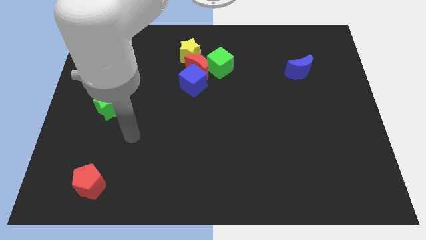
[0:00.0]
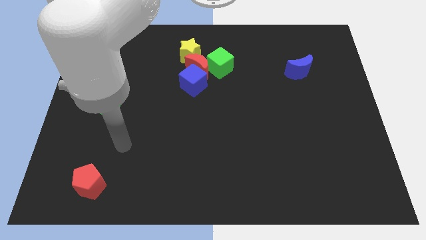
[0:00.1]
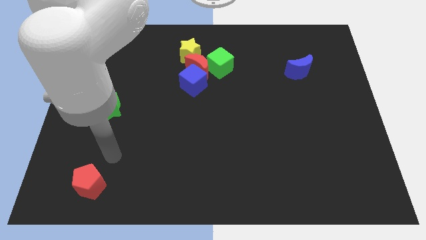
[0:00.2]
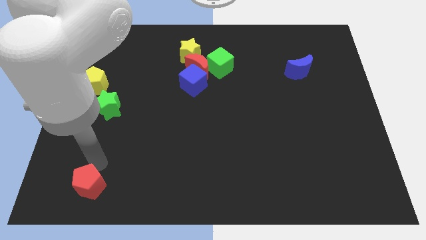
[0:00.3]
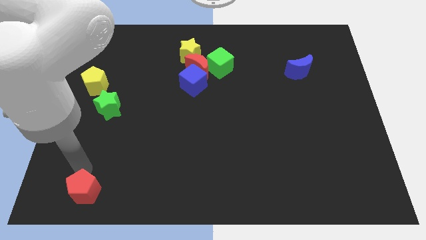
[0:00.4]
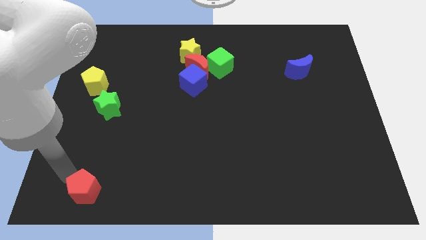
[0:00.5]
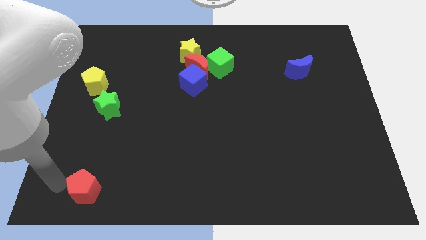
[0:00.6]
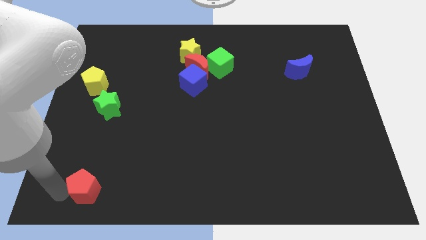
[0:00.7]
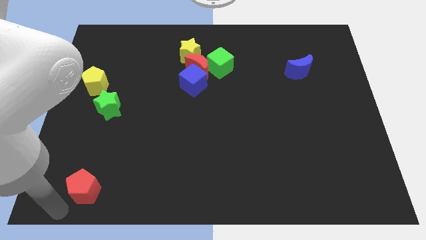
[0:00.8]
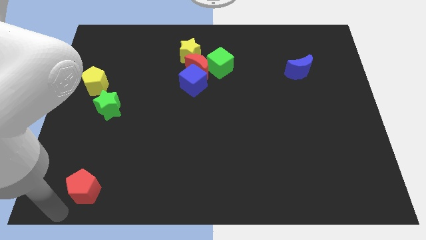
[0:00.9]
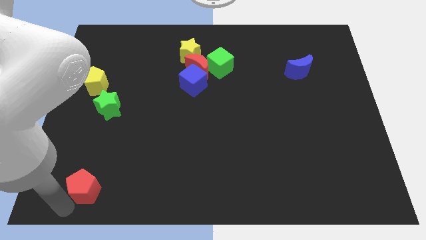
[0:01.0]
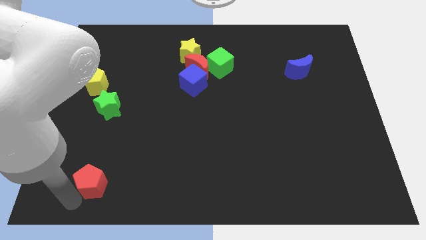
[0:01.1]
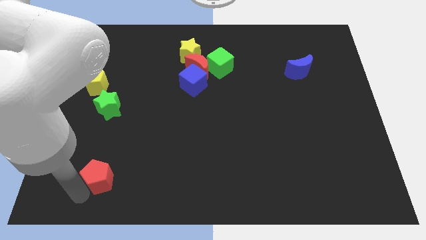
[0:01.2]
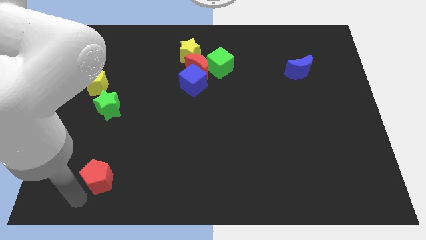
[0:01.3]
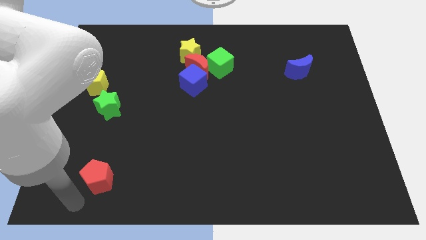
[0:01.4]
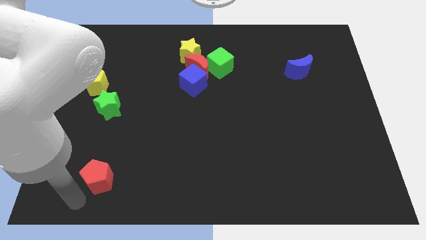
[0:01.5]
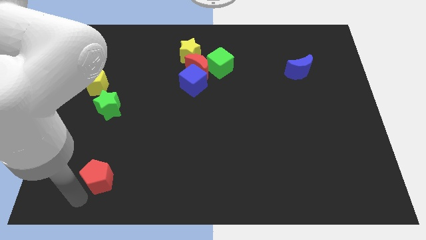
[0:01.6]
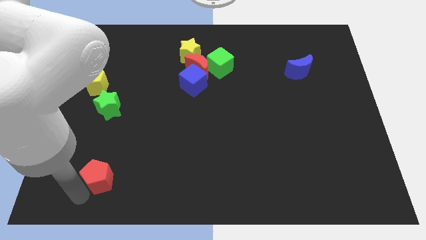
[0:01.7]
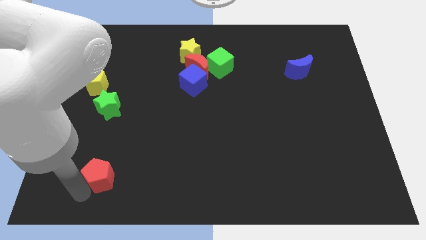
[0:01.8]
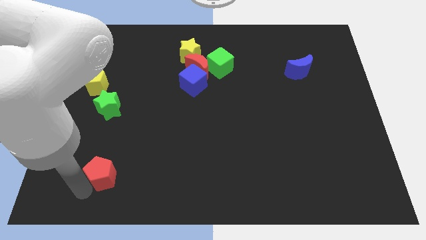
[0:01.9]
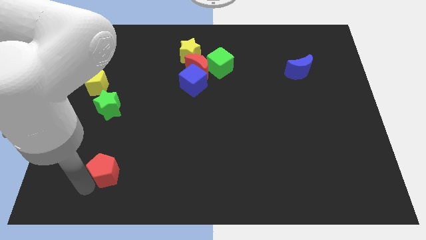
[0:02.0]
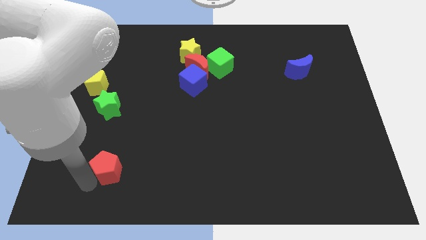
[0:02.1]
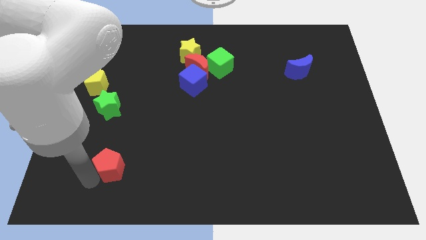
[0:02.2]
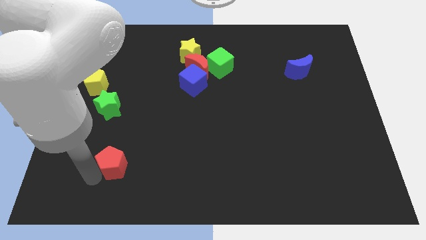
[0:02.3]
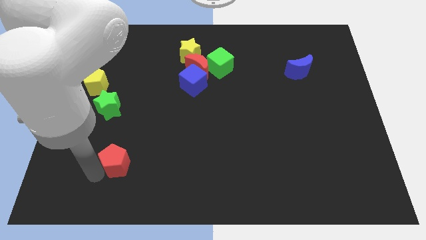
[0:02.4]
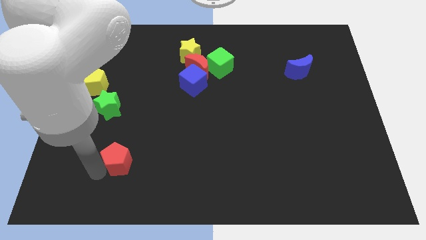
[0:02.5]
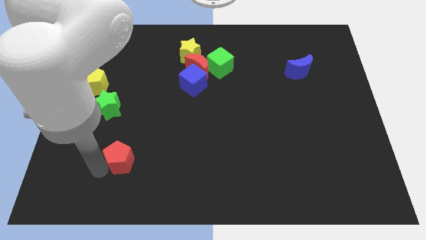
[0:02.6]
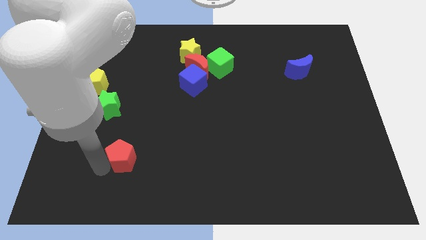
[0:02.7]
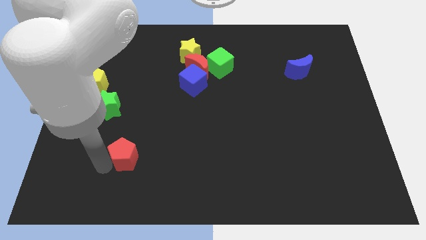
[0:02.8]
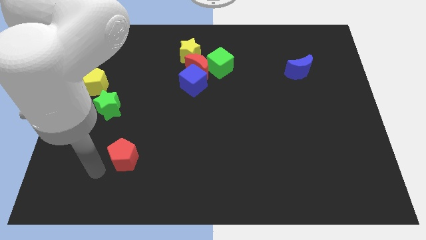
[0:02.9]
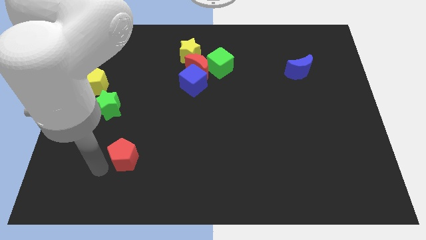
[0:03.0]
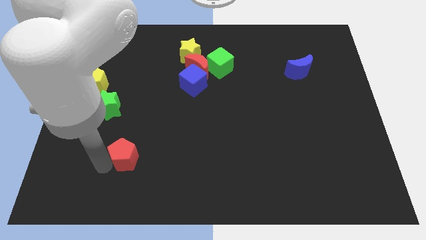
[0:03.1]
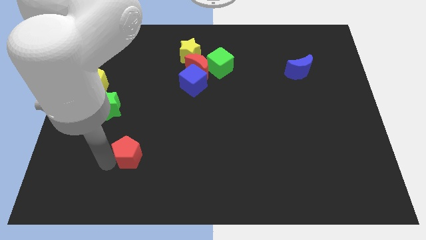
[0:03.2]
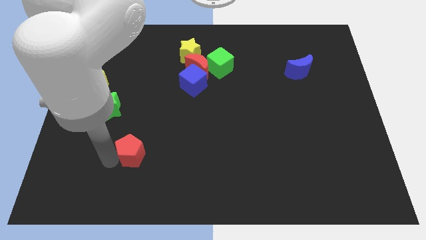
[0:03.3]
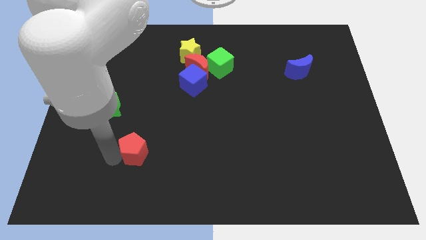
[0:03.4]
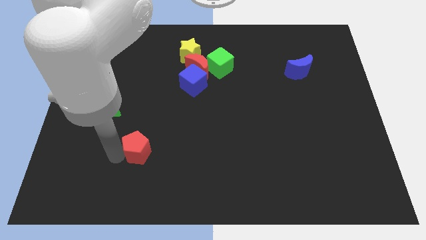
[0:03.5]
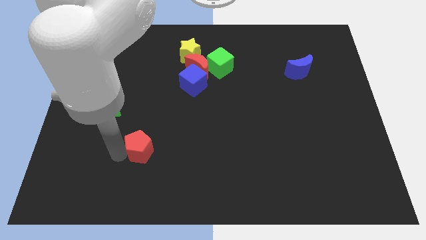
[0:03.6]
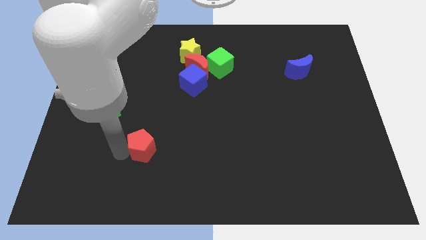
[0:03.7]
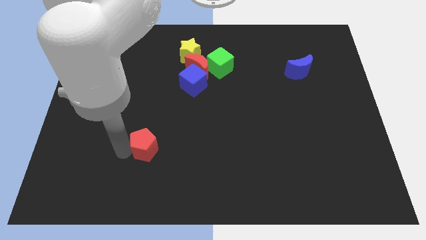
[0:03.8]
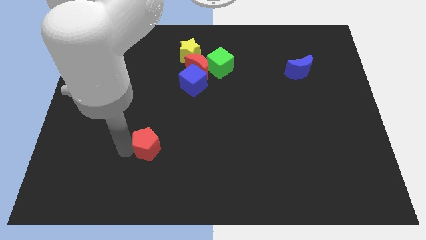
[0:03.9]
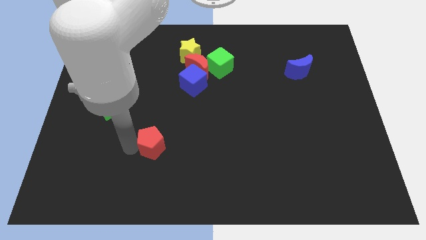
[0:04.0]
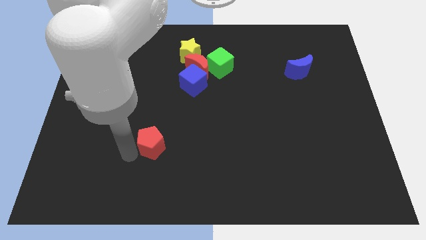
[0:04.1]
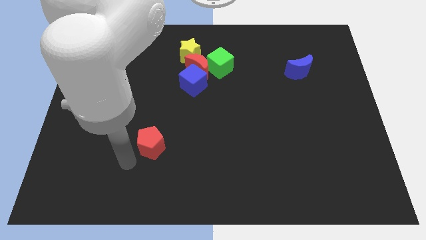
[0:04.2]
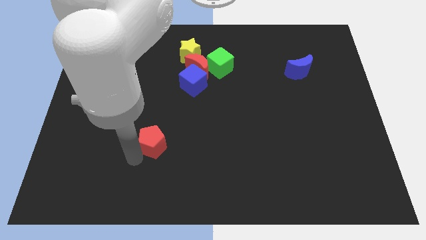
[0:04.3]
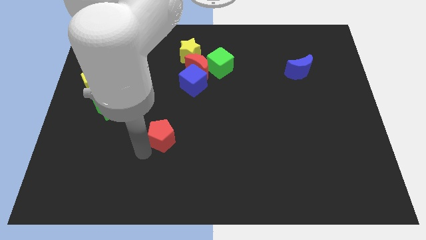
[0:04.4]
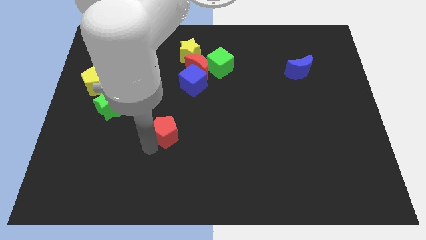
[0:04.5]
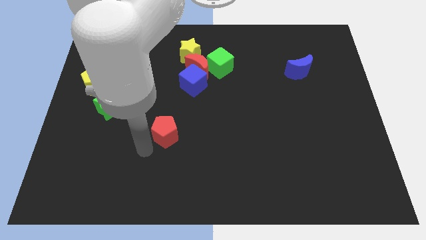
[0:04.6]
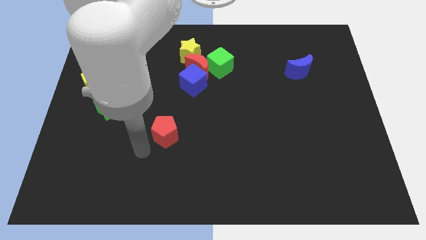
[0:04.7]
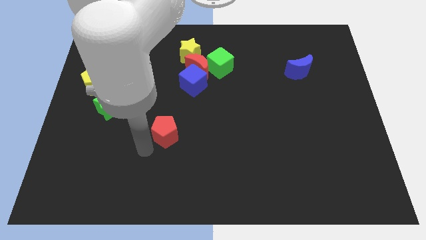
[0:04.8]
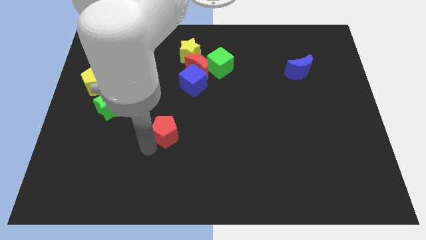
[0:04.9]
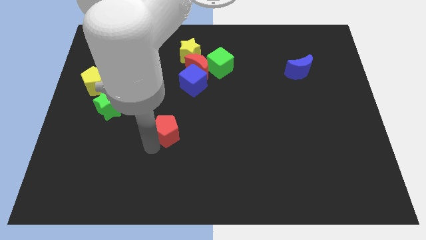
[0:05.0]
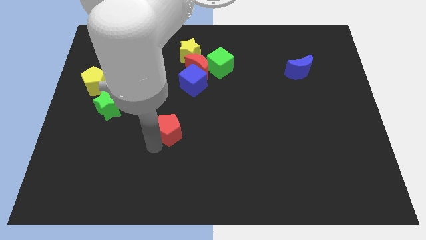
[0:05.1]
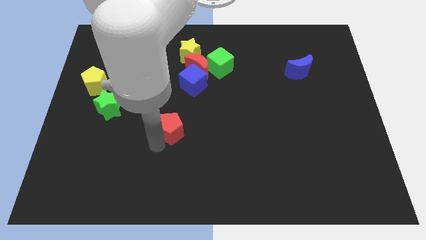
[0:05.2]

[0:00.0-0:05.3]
move the red pentagon to the center

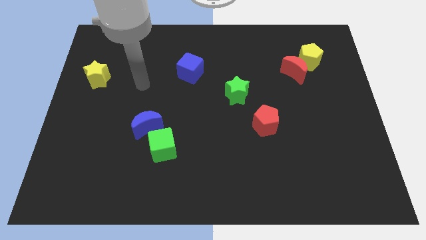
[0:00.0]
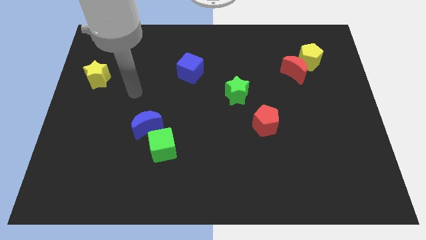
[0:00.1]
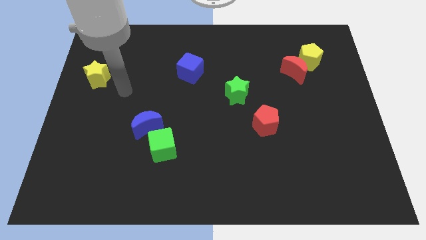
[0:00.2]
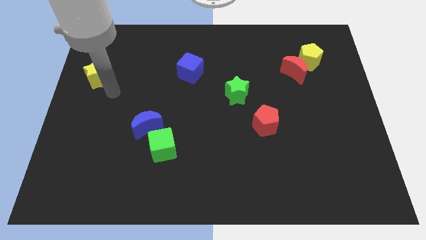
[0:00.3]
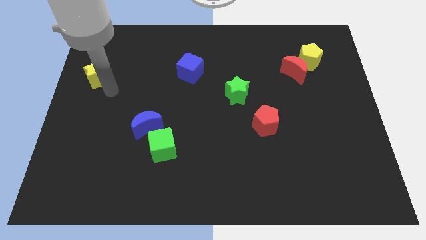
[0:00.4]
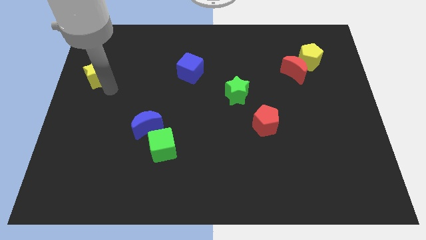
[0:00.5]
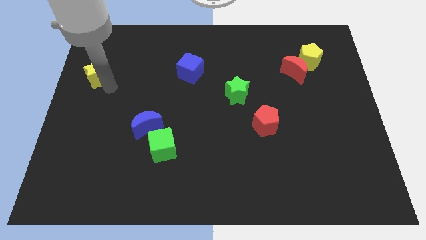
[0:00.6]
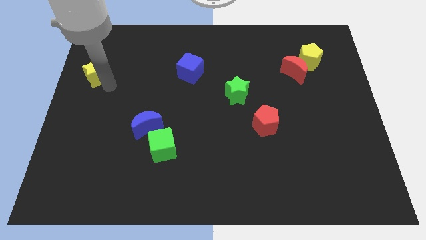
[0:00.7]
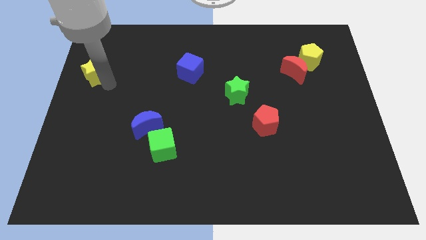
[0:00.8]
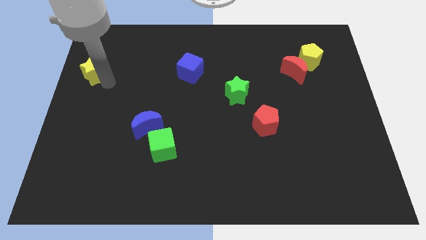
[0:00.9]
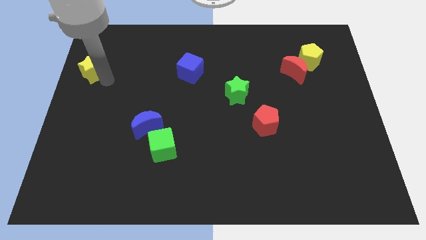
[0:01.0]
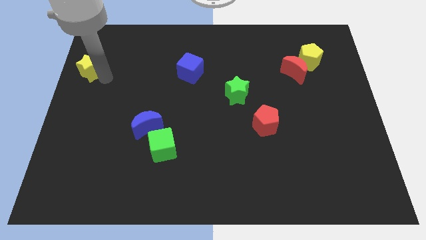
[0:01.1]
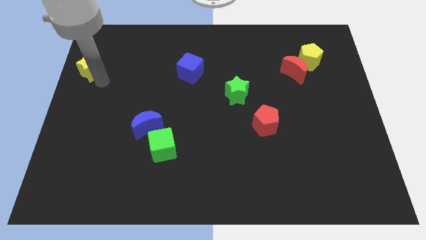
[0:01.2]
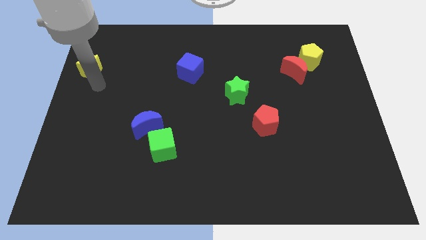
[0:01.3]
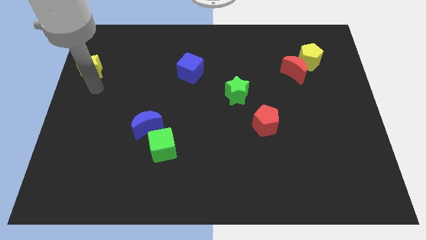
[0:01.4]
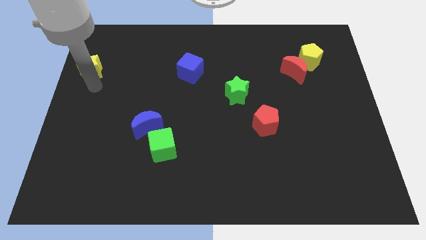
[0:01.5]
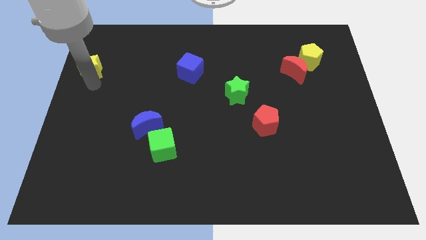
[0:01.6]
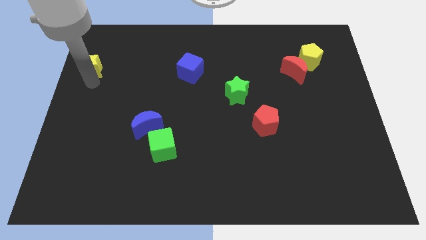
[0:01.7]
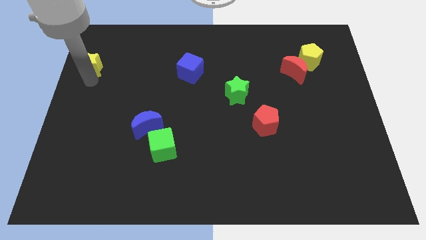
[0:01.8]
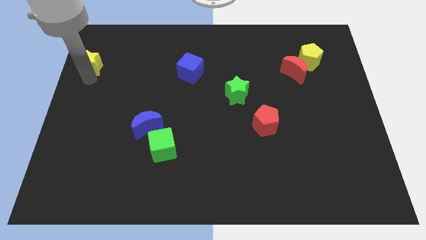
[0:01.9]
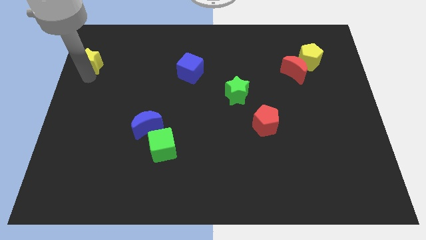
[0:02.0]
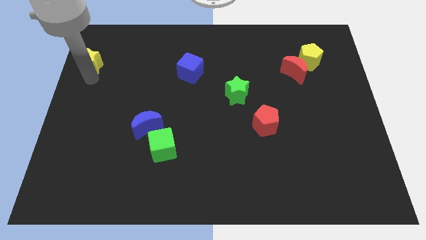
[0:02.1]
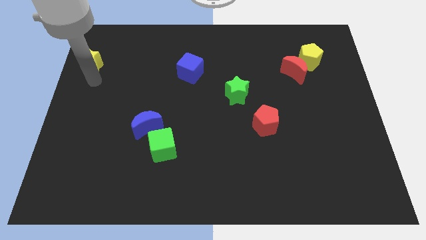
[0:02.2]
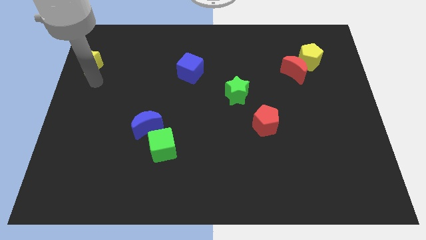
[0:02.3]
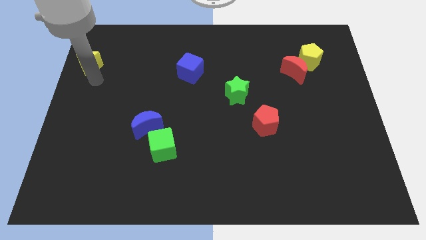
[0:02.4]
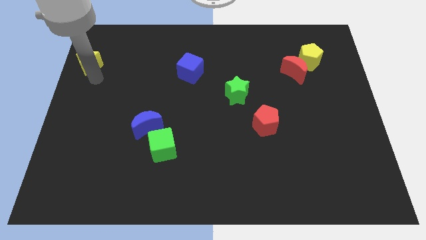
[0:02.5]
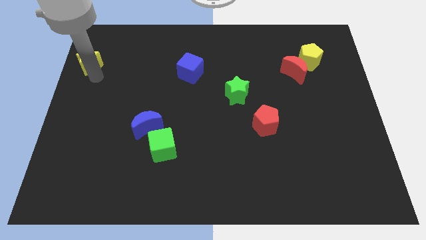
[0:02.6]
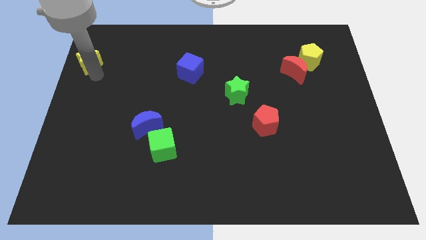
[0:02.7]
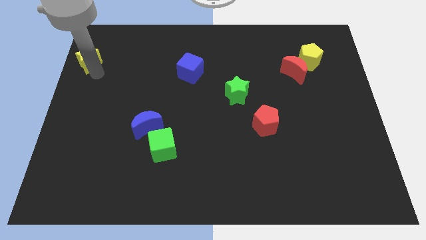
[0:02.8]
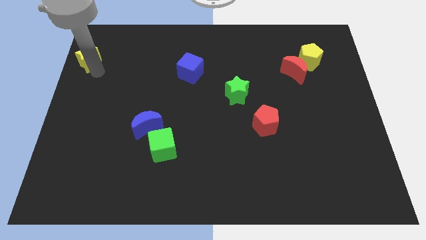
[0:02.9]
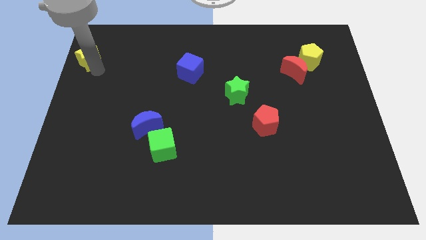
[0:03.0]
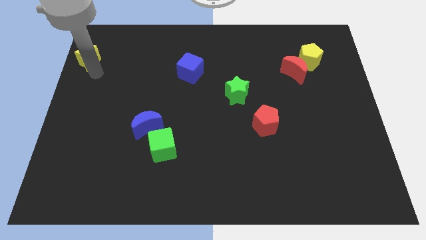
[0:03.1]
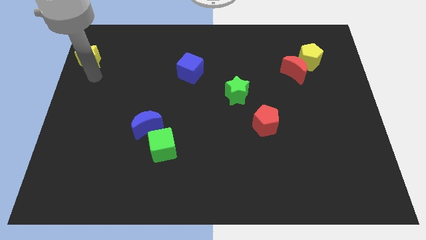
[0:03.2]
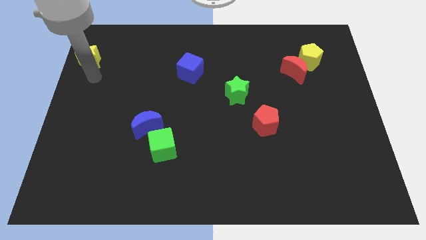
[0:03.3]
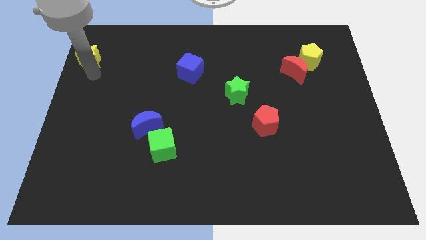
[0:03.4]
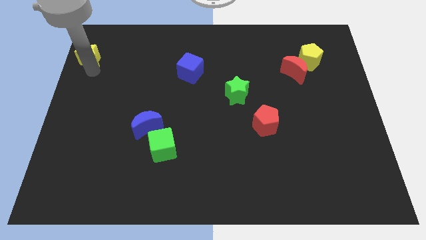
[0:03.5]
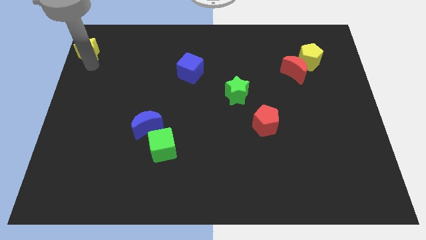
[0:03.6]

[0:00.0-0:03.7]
slide the yellow star to the top left
